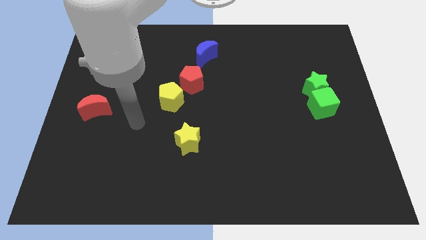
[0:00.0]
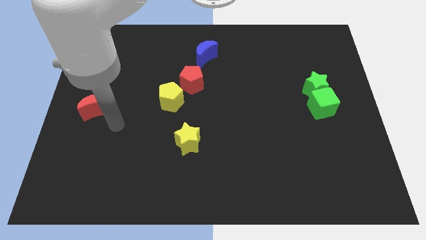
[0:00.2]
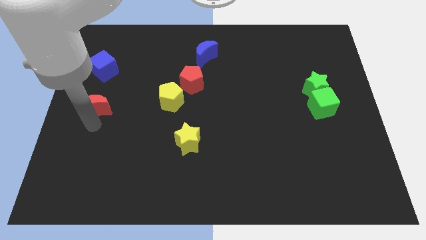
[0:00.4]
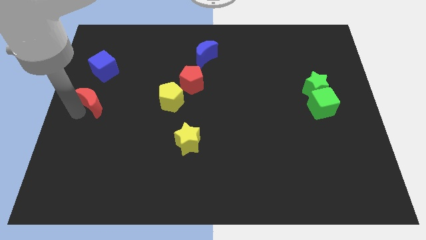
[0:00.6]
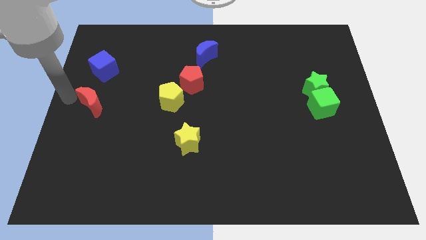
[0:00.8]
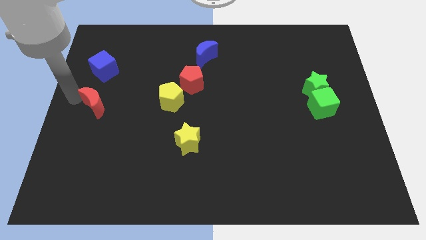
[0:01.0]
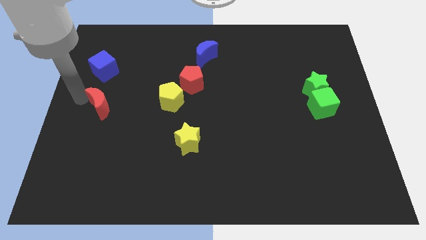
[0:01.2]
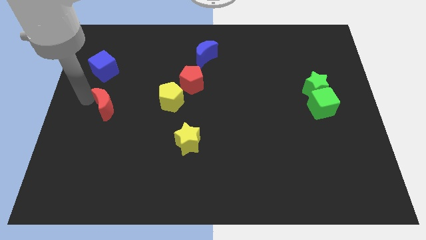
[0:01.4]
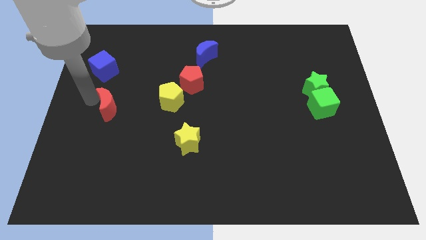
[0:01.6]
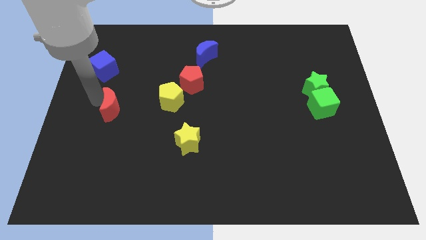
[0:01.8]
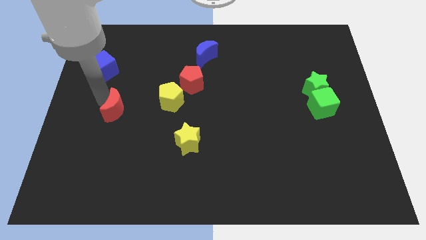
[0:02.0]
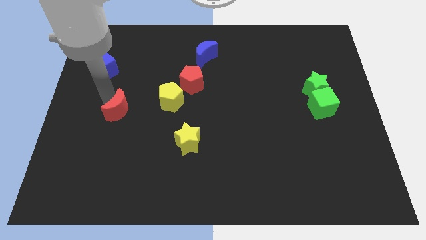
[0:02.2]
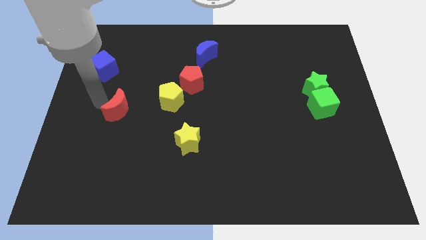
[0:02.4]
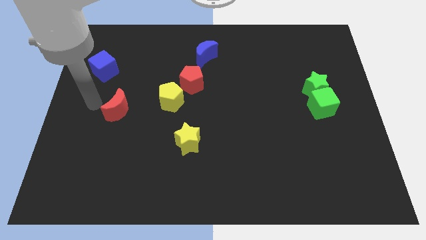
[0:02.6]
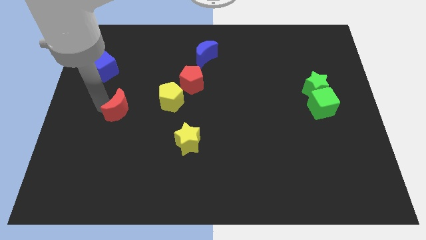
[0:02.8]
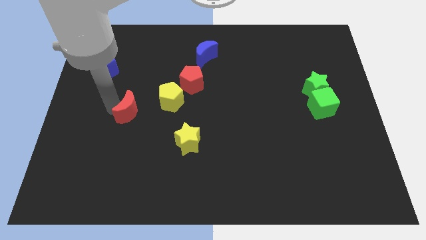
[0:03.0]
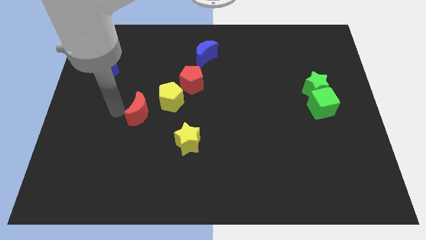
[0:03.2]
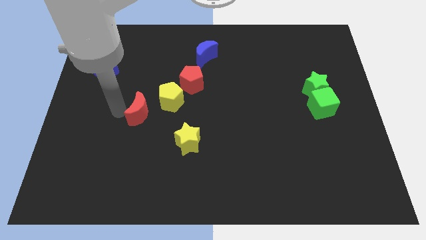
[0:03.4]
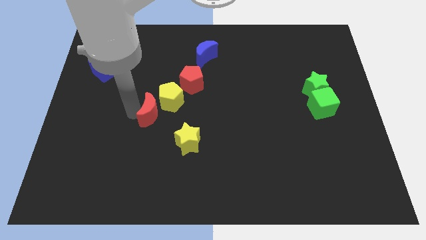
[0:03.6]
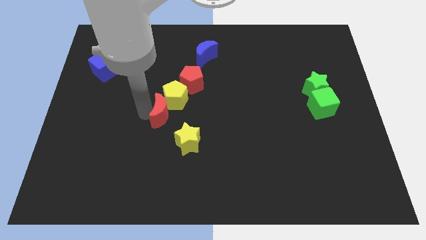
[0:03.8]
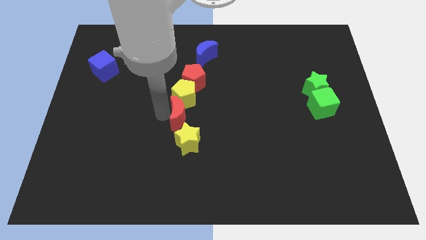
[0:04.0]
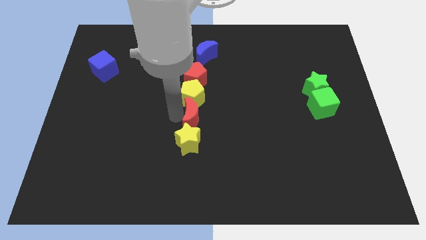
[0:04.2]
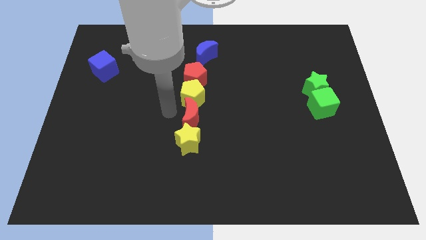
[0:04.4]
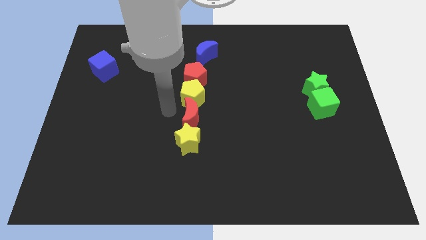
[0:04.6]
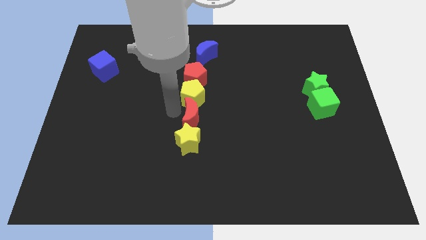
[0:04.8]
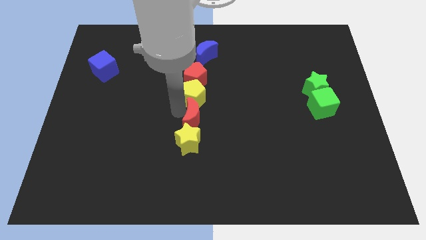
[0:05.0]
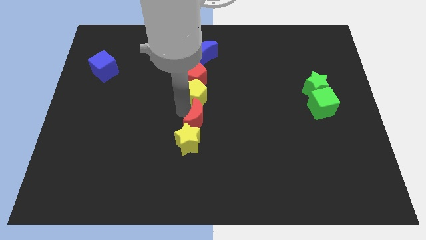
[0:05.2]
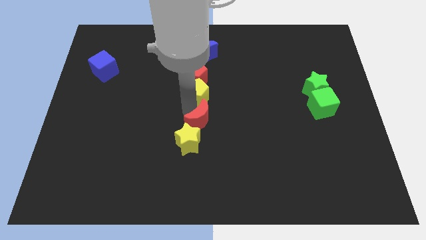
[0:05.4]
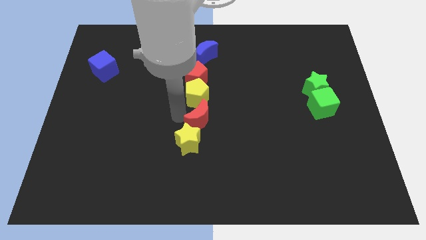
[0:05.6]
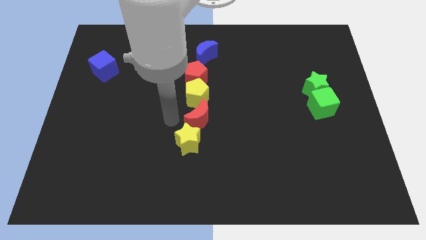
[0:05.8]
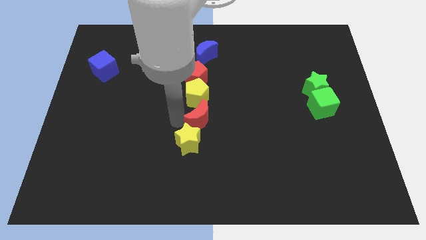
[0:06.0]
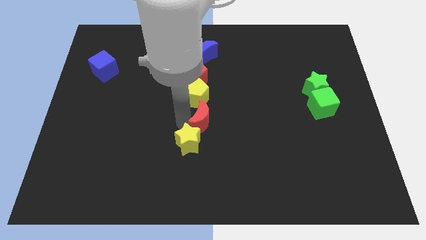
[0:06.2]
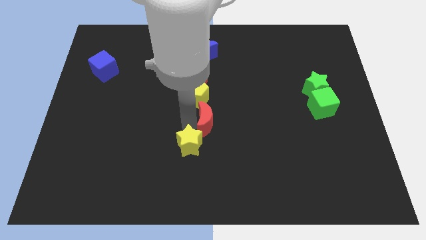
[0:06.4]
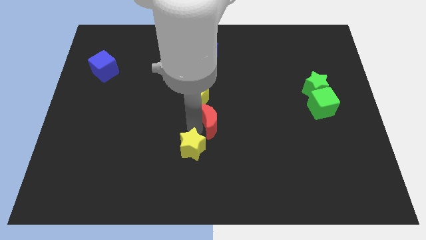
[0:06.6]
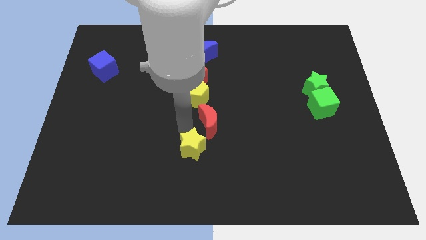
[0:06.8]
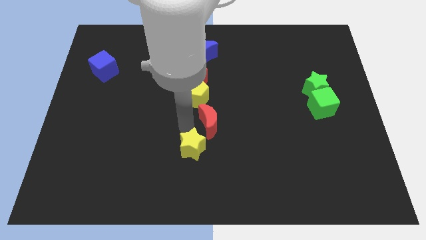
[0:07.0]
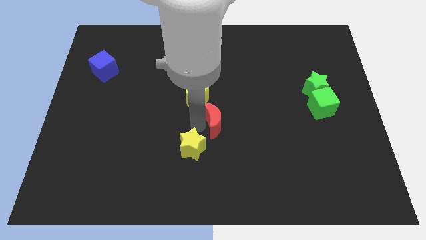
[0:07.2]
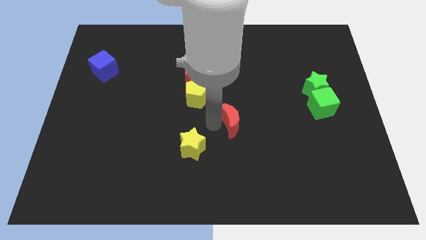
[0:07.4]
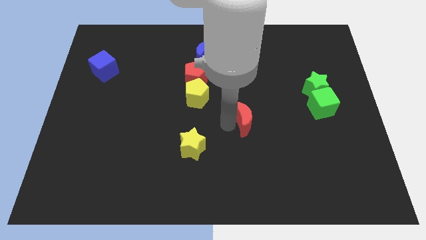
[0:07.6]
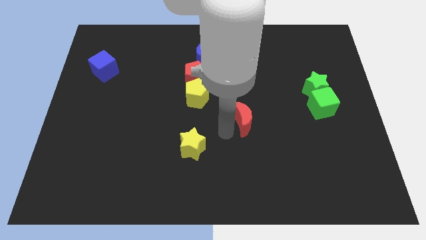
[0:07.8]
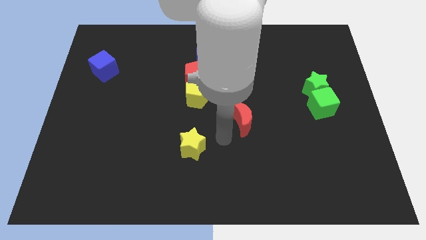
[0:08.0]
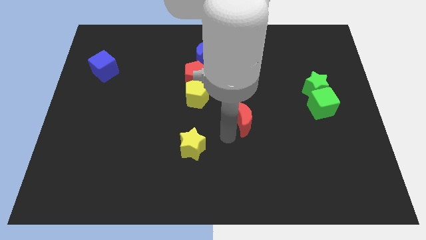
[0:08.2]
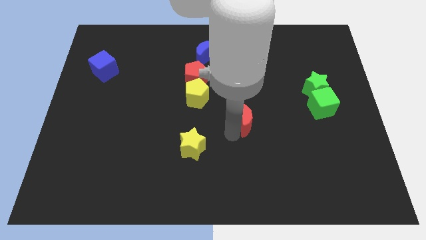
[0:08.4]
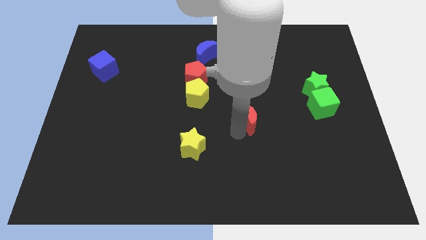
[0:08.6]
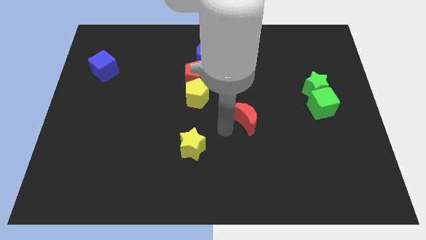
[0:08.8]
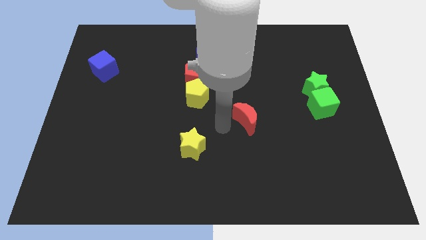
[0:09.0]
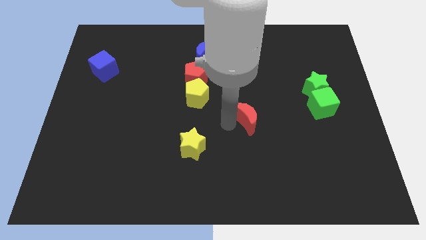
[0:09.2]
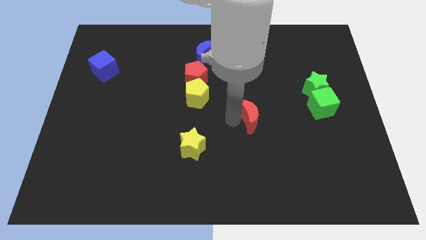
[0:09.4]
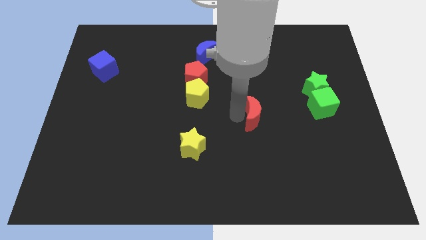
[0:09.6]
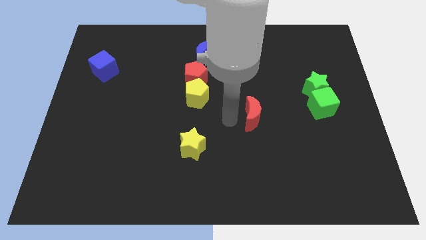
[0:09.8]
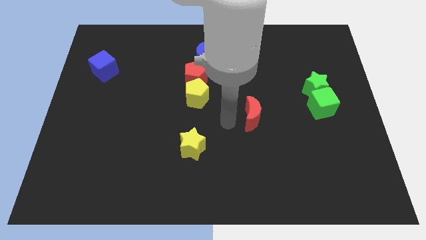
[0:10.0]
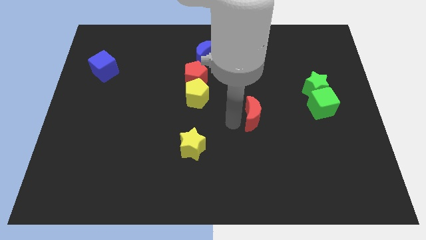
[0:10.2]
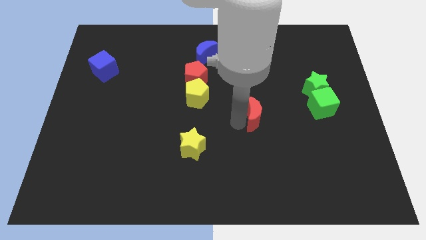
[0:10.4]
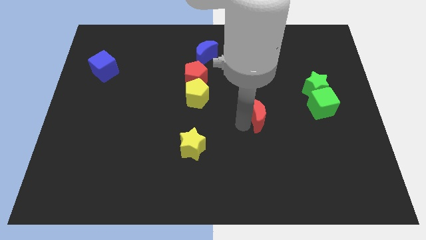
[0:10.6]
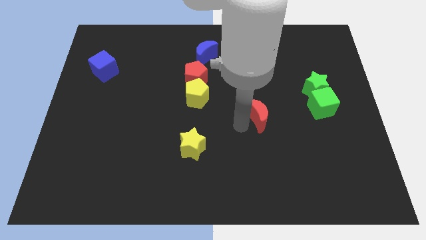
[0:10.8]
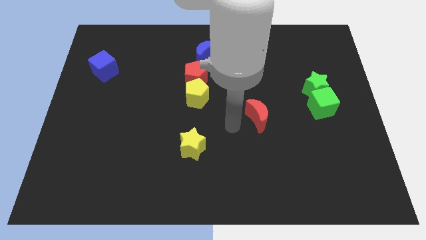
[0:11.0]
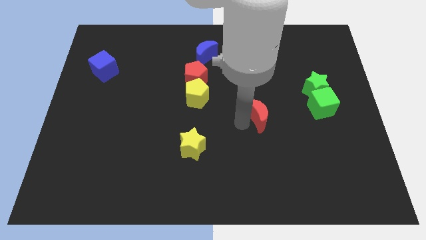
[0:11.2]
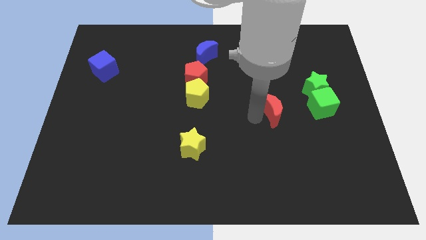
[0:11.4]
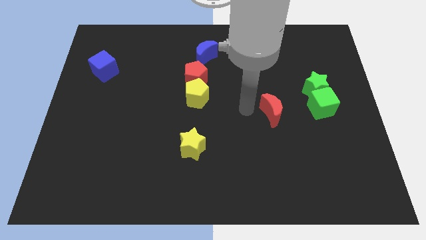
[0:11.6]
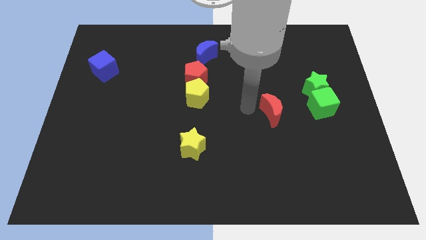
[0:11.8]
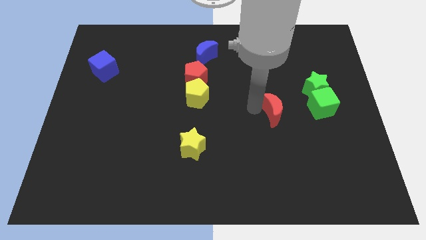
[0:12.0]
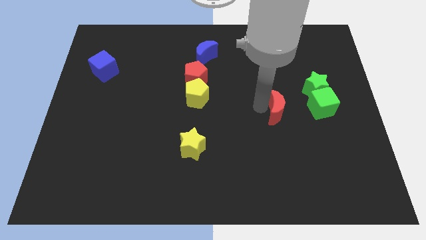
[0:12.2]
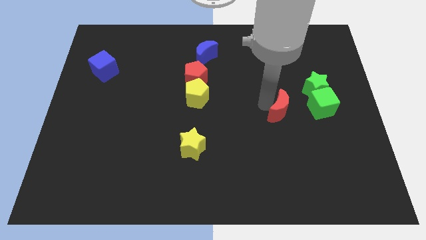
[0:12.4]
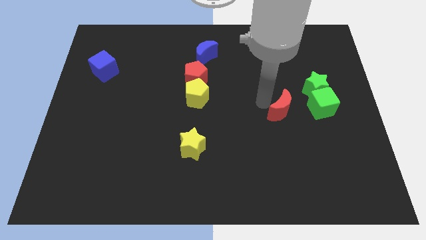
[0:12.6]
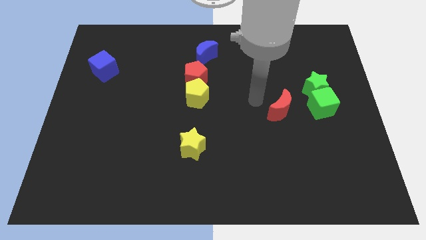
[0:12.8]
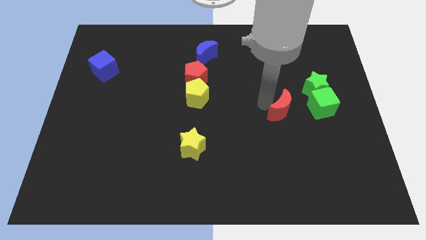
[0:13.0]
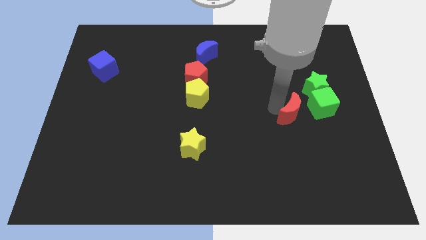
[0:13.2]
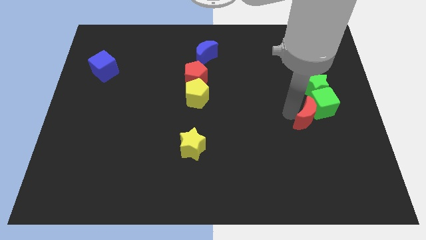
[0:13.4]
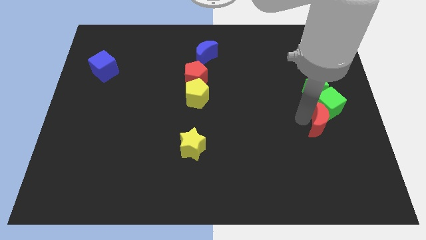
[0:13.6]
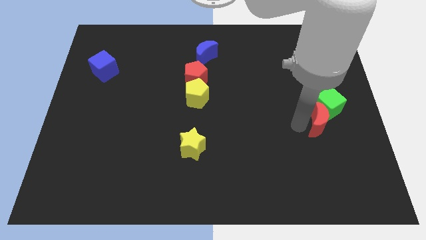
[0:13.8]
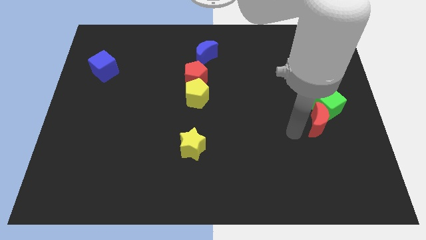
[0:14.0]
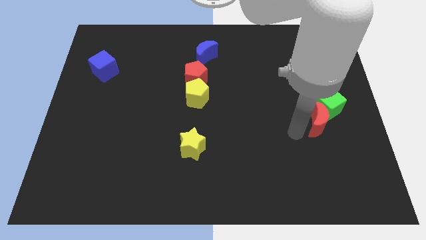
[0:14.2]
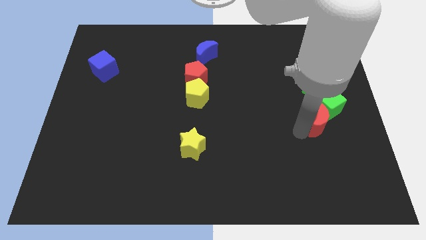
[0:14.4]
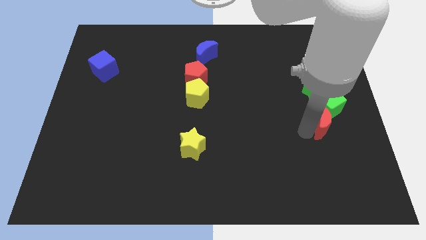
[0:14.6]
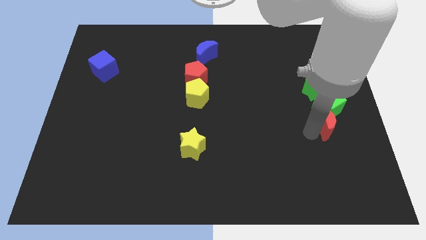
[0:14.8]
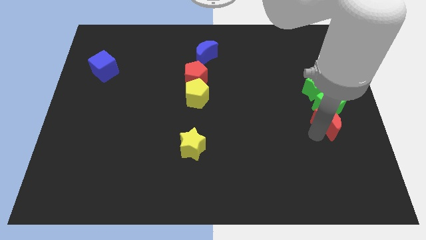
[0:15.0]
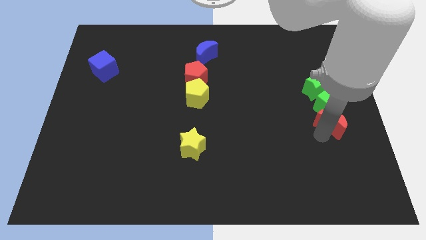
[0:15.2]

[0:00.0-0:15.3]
slide the red moon to the right side
